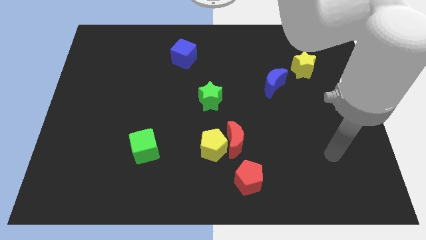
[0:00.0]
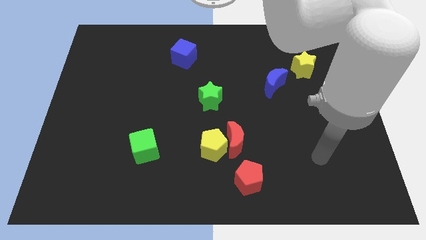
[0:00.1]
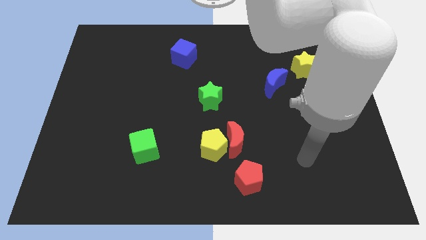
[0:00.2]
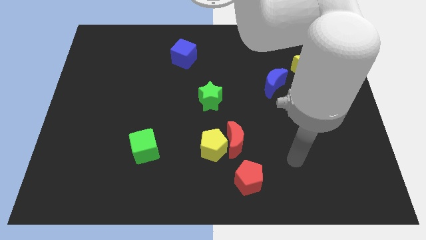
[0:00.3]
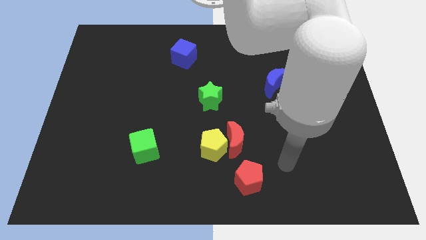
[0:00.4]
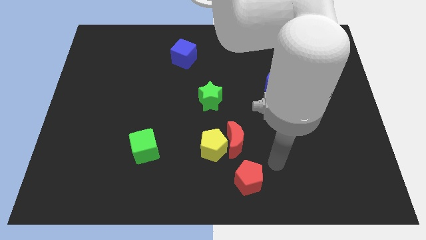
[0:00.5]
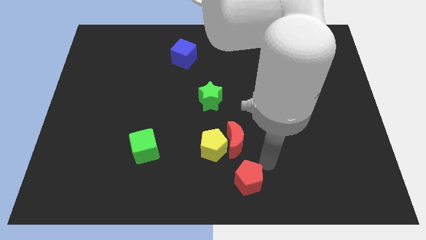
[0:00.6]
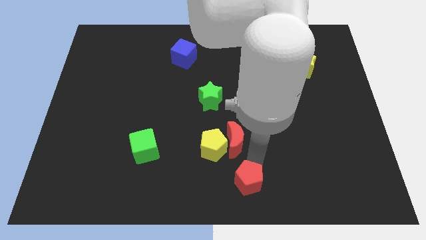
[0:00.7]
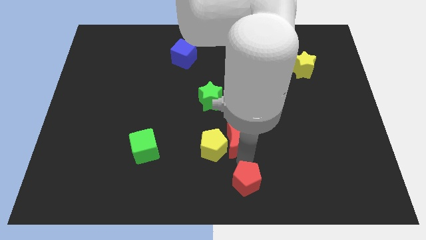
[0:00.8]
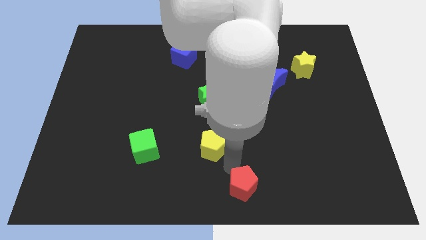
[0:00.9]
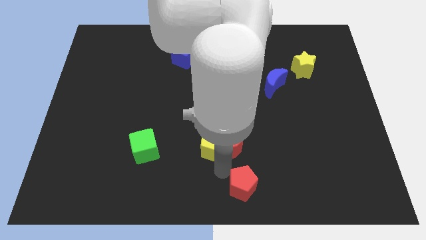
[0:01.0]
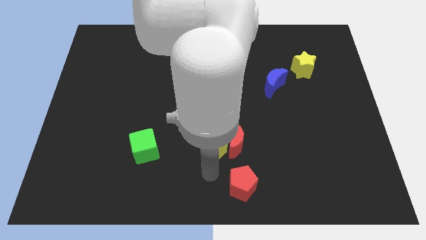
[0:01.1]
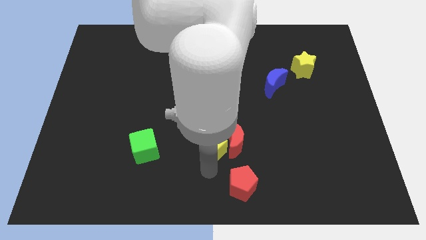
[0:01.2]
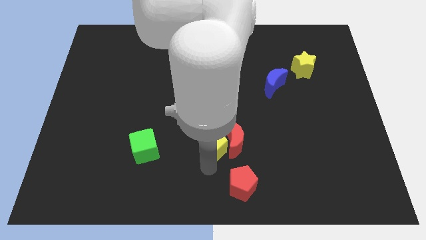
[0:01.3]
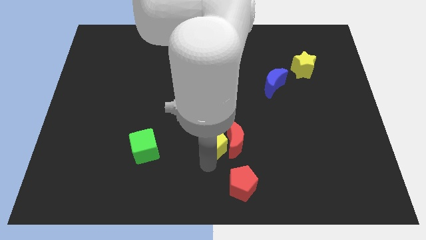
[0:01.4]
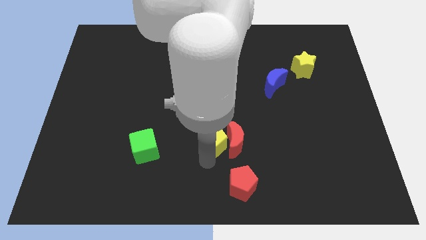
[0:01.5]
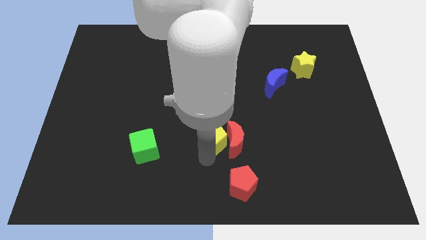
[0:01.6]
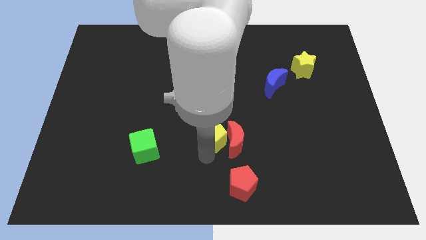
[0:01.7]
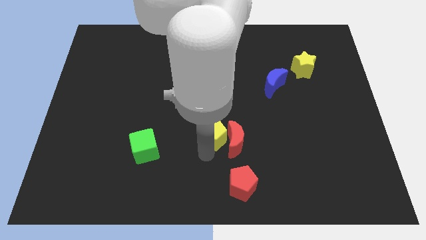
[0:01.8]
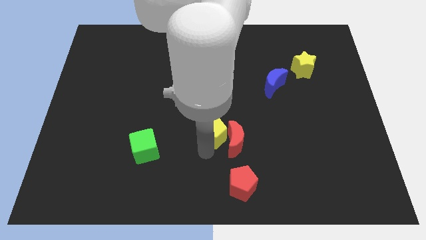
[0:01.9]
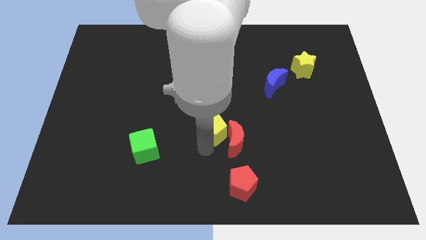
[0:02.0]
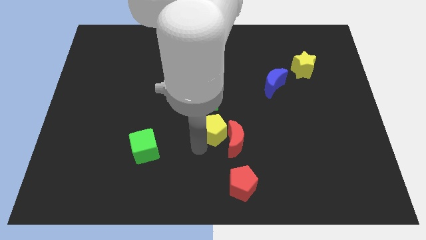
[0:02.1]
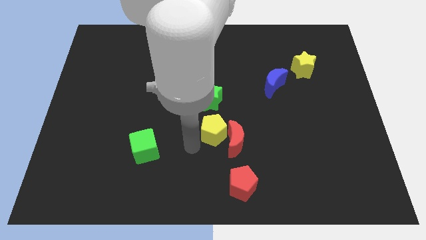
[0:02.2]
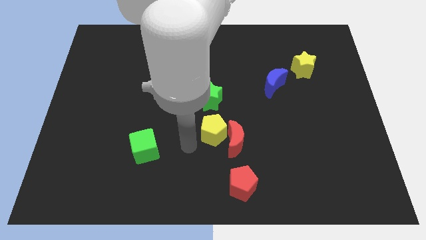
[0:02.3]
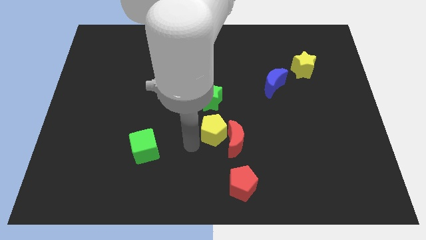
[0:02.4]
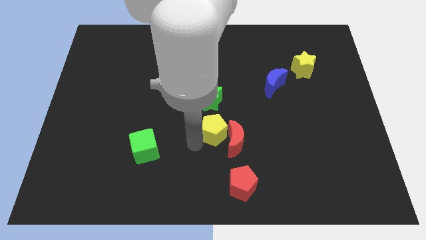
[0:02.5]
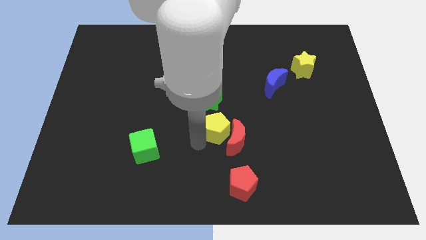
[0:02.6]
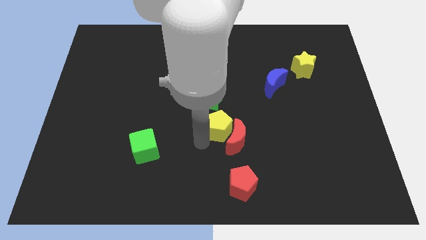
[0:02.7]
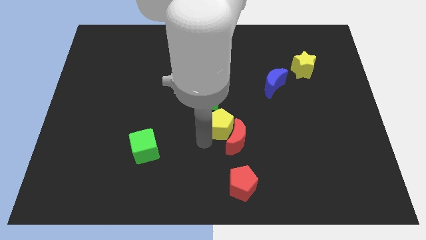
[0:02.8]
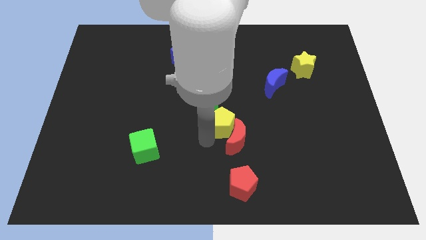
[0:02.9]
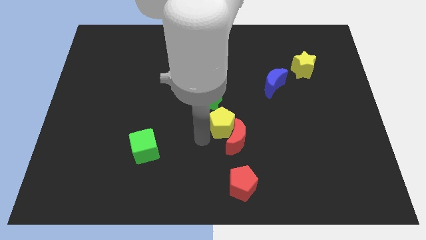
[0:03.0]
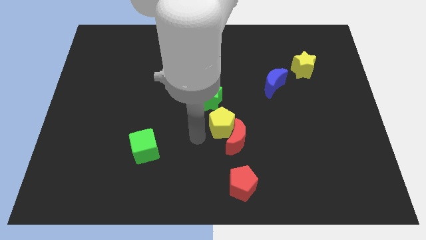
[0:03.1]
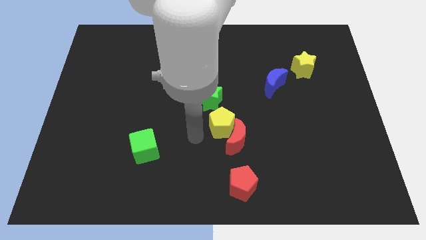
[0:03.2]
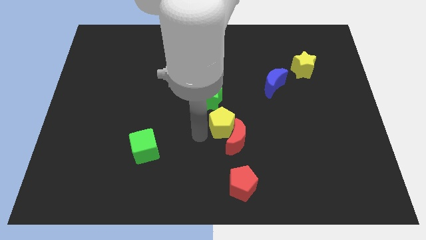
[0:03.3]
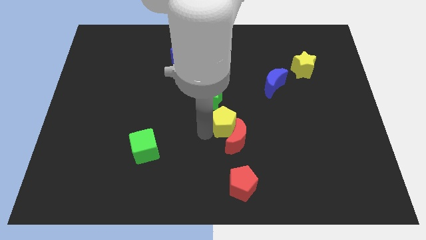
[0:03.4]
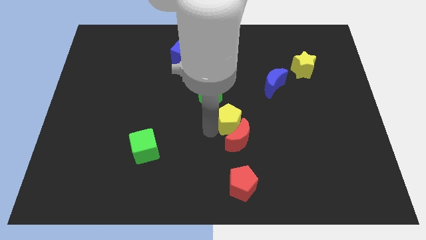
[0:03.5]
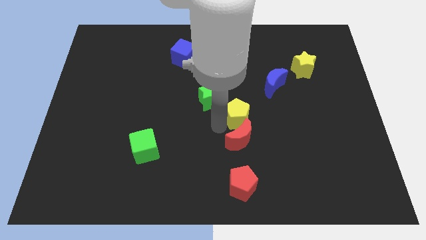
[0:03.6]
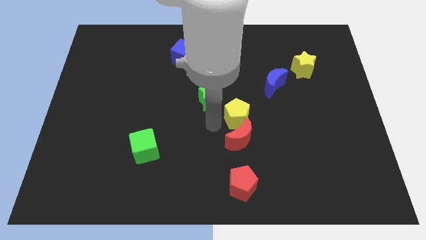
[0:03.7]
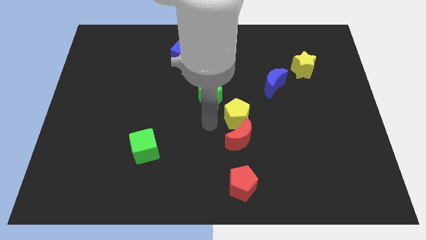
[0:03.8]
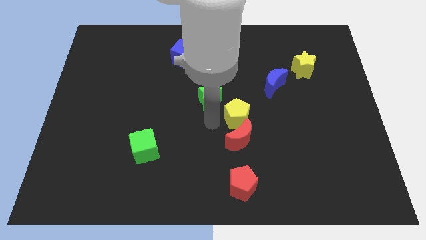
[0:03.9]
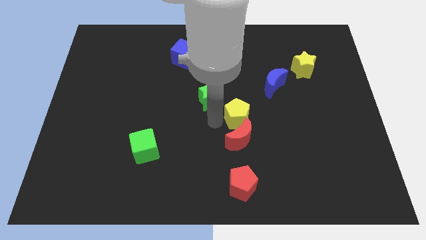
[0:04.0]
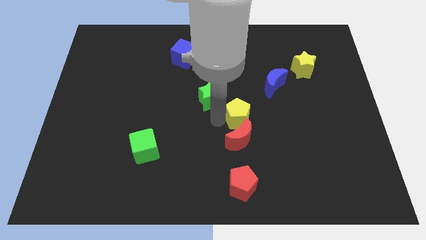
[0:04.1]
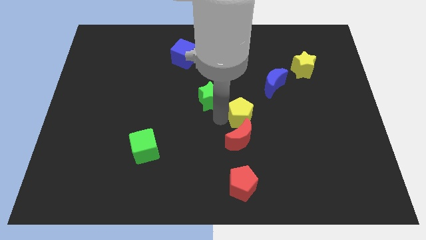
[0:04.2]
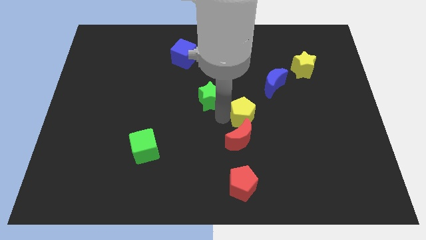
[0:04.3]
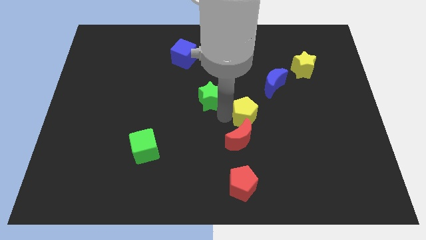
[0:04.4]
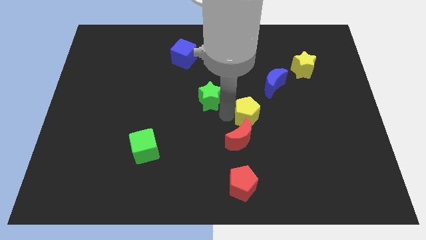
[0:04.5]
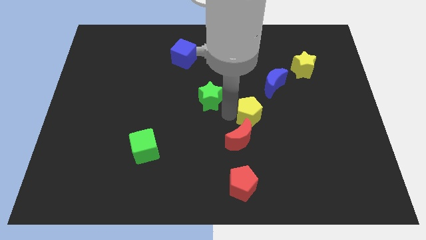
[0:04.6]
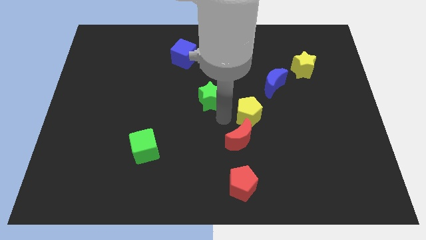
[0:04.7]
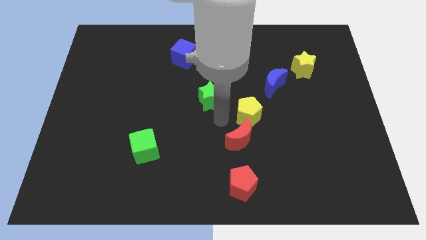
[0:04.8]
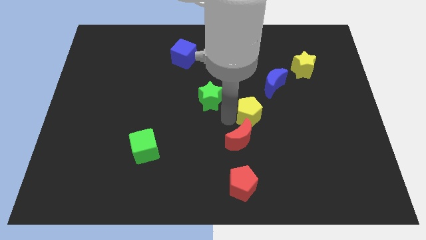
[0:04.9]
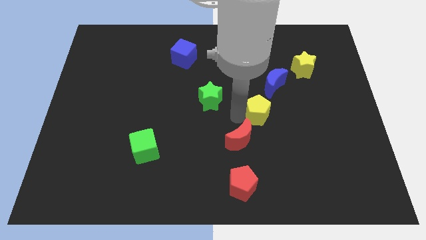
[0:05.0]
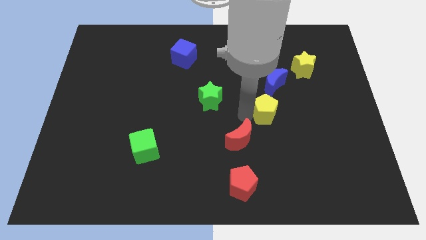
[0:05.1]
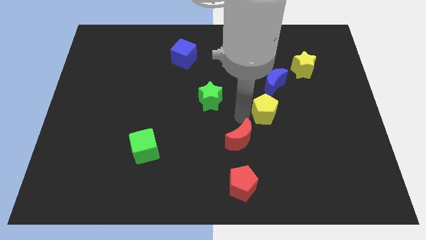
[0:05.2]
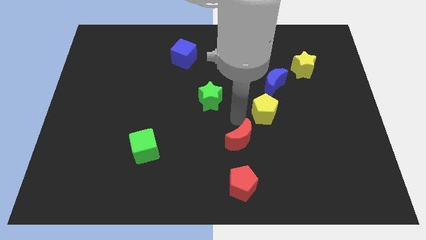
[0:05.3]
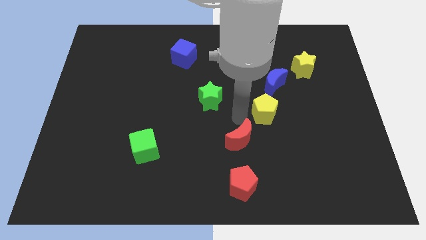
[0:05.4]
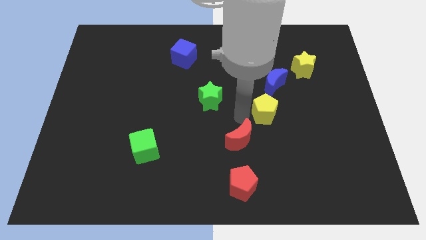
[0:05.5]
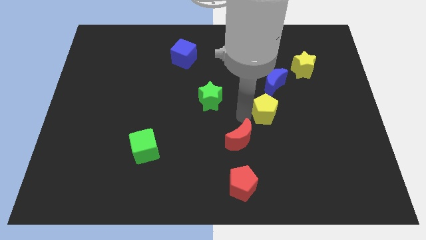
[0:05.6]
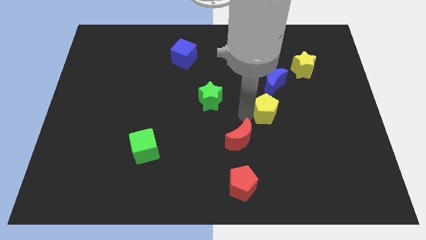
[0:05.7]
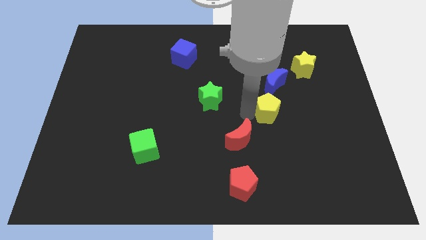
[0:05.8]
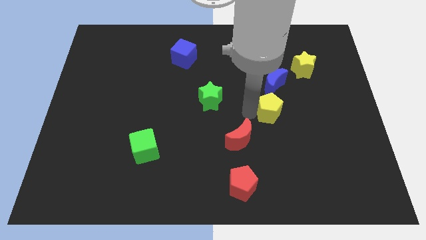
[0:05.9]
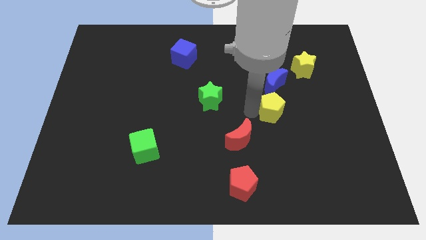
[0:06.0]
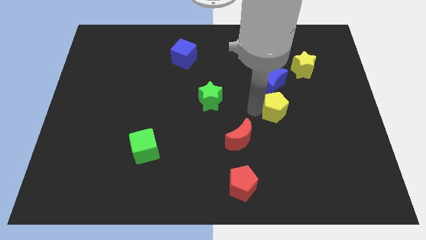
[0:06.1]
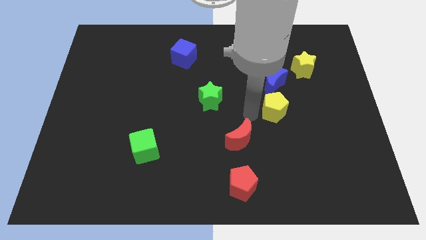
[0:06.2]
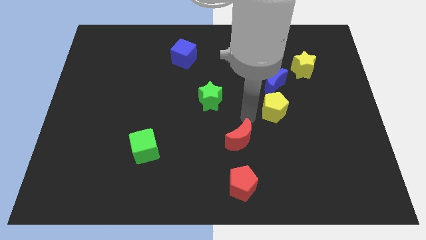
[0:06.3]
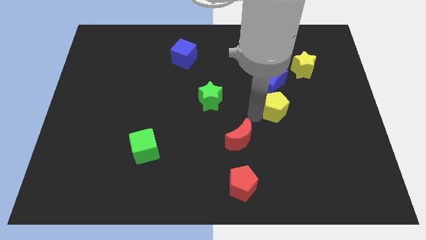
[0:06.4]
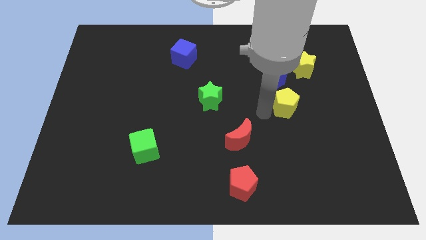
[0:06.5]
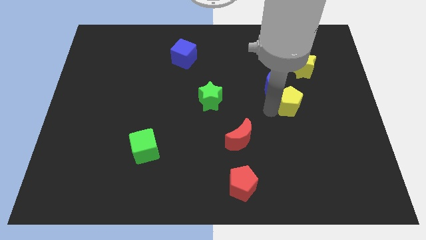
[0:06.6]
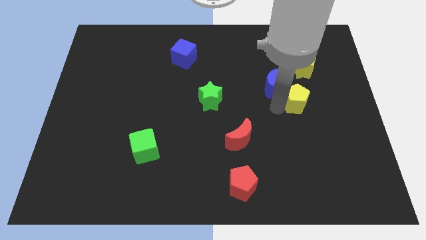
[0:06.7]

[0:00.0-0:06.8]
put the yellow pentagon to the bottom side of the yellow star
